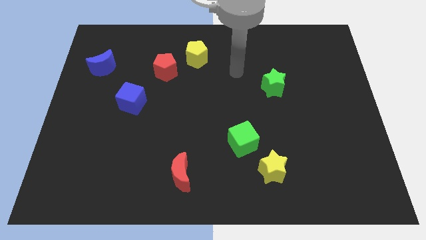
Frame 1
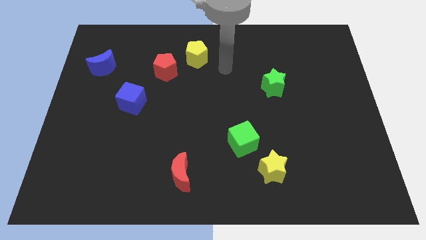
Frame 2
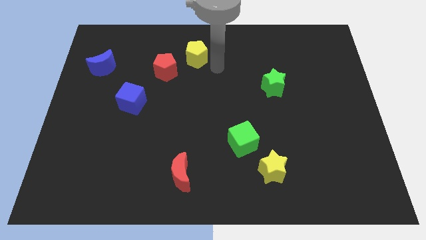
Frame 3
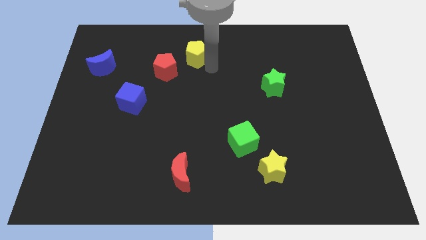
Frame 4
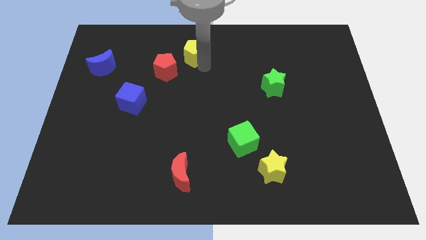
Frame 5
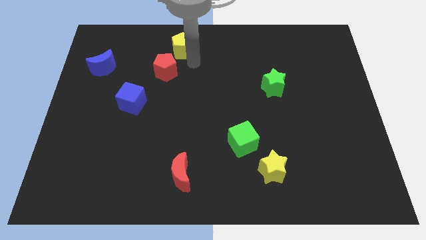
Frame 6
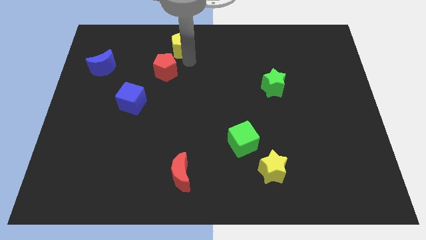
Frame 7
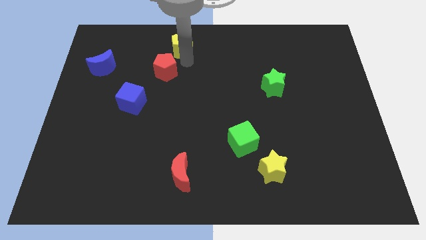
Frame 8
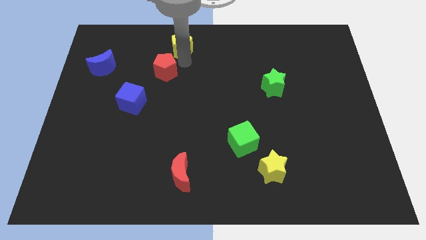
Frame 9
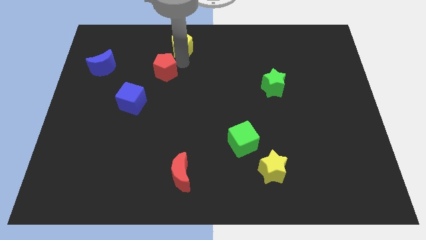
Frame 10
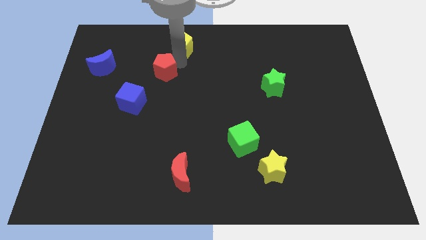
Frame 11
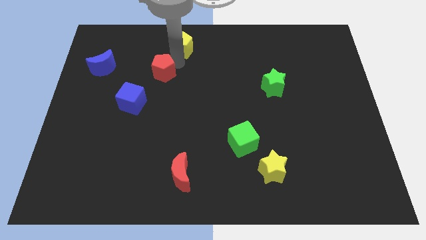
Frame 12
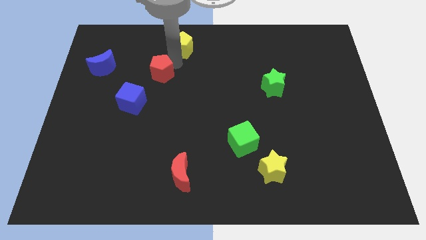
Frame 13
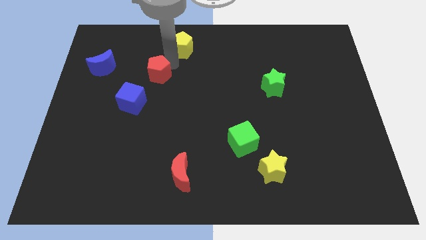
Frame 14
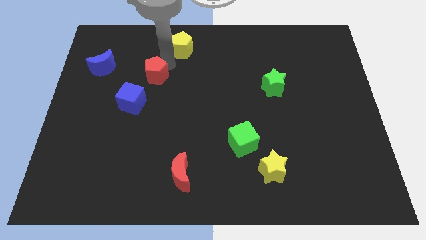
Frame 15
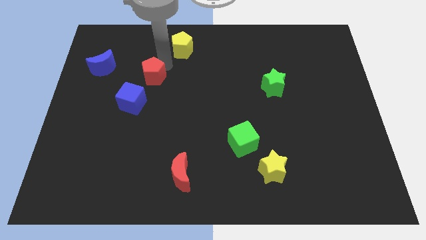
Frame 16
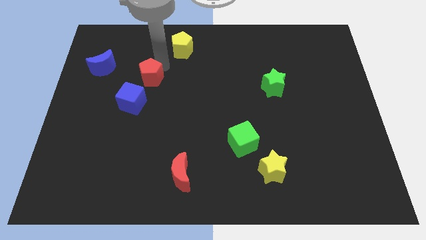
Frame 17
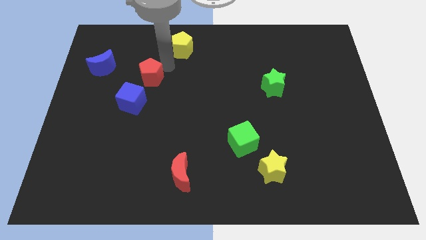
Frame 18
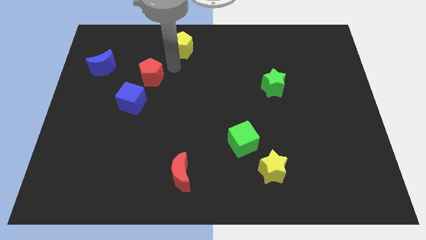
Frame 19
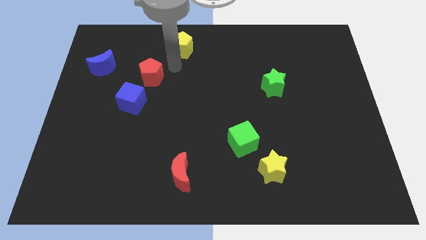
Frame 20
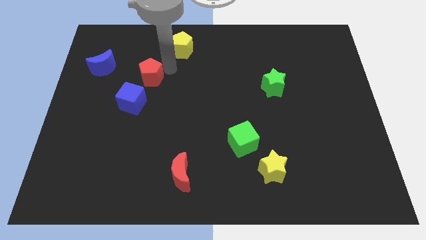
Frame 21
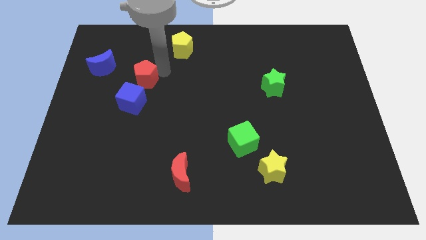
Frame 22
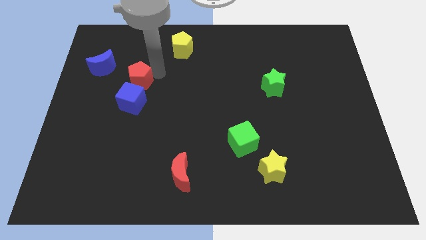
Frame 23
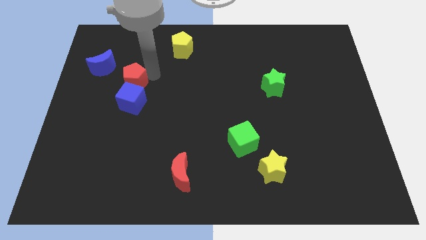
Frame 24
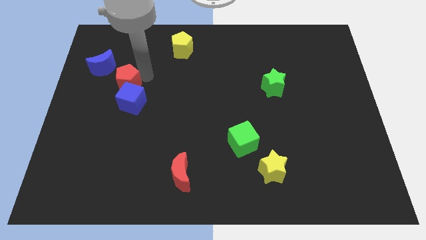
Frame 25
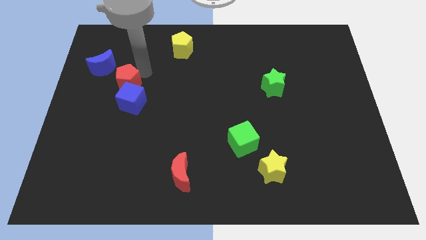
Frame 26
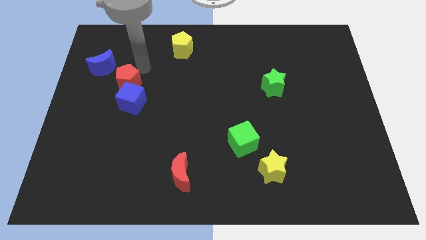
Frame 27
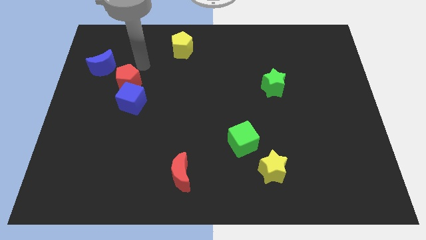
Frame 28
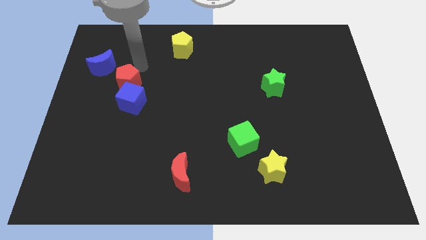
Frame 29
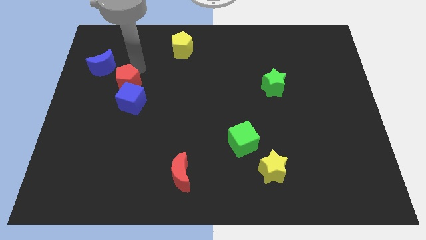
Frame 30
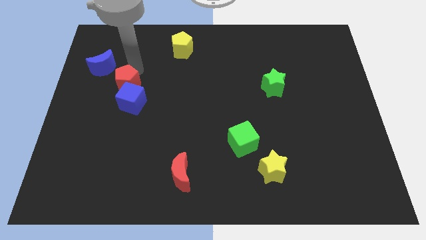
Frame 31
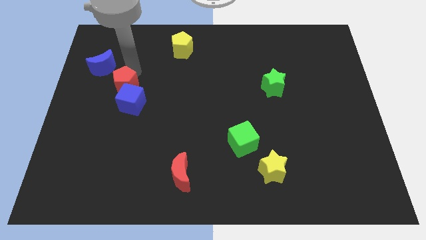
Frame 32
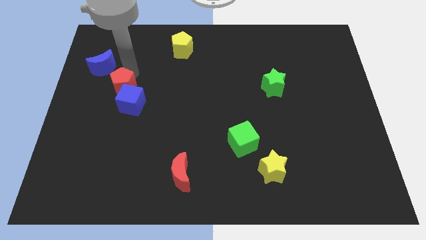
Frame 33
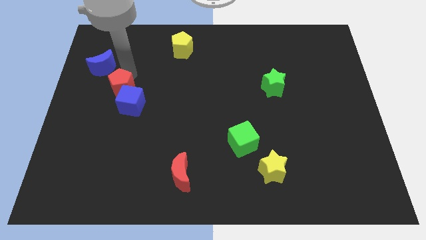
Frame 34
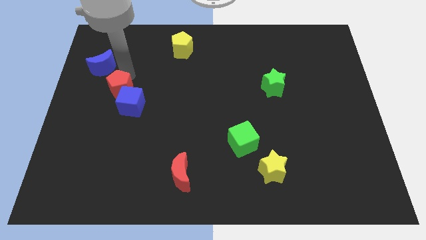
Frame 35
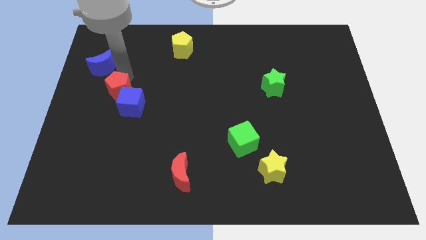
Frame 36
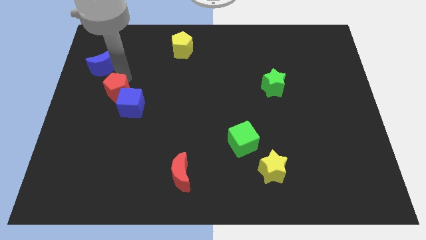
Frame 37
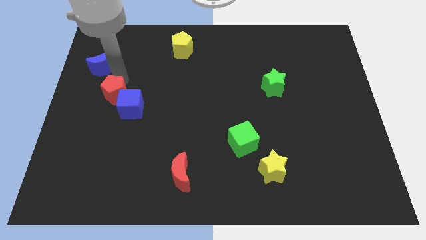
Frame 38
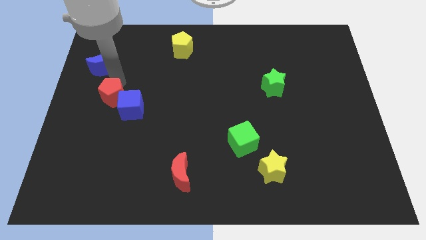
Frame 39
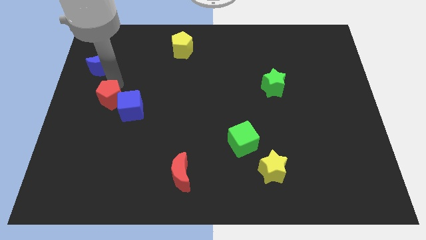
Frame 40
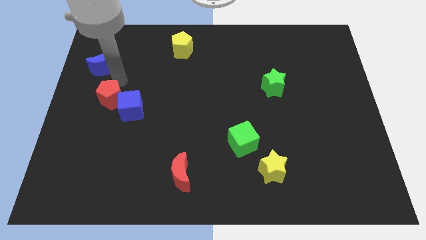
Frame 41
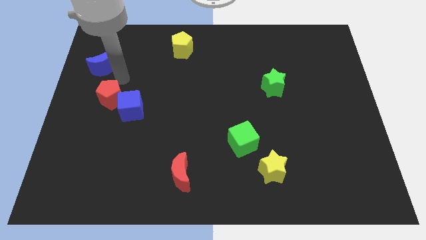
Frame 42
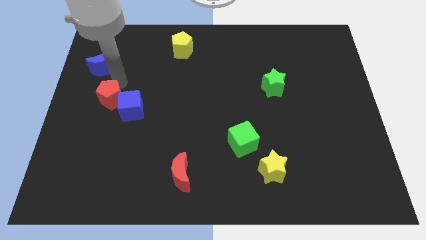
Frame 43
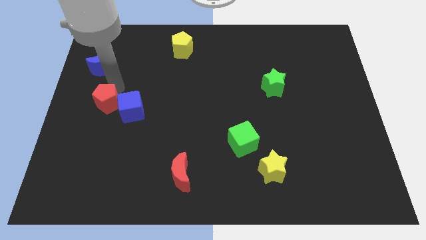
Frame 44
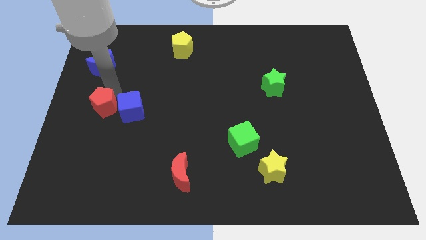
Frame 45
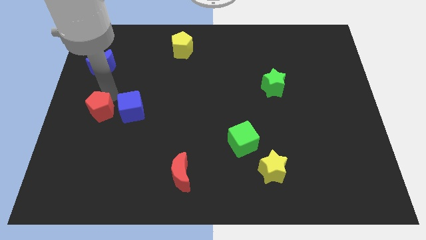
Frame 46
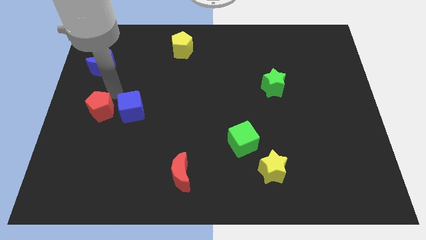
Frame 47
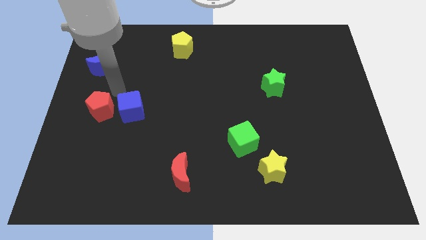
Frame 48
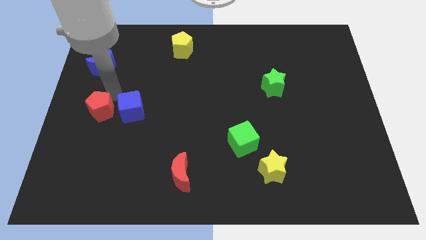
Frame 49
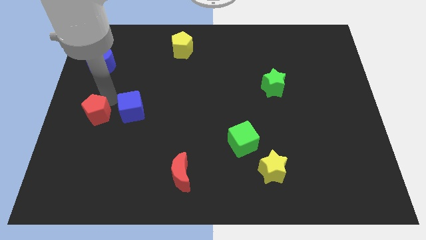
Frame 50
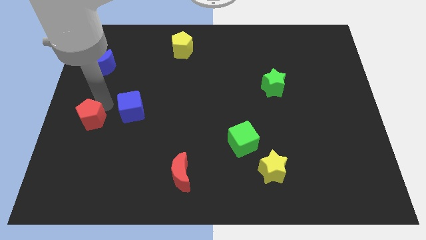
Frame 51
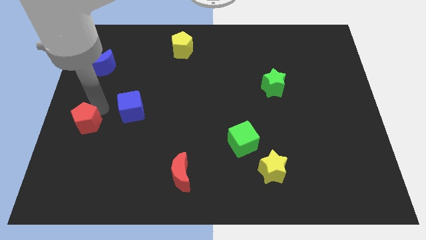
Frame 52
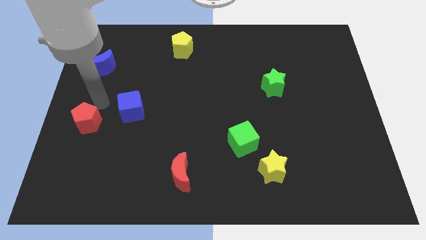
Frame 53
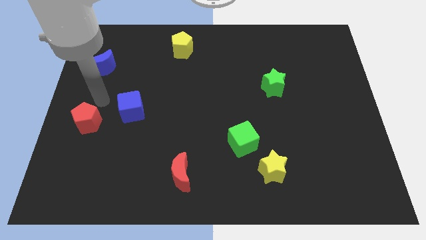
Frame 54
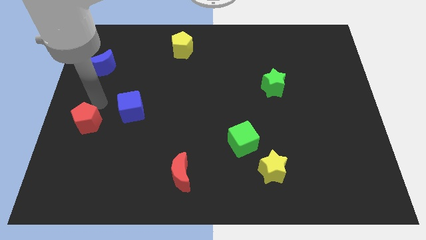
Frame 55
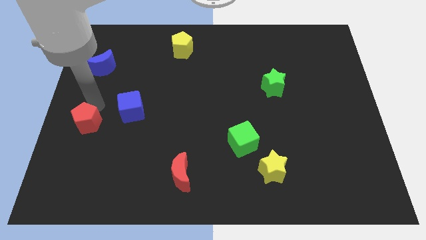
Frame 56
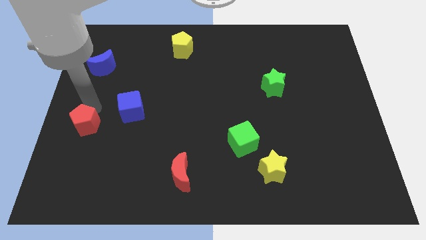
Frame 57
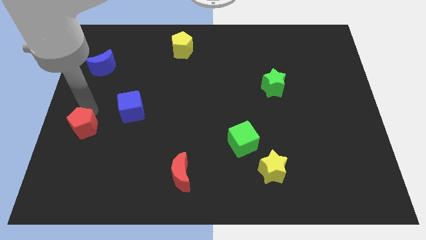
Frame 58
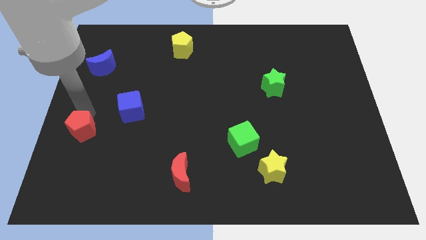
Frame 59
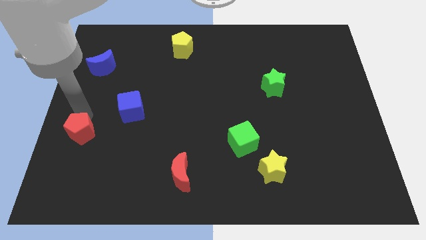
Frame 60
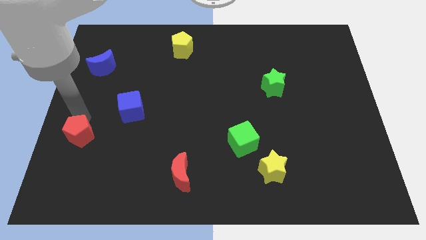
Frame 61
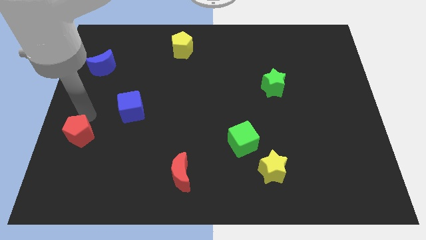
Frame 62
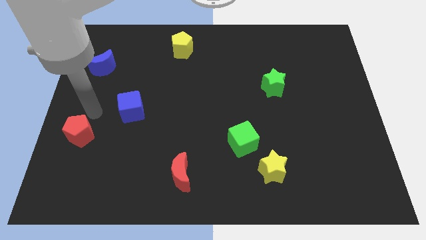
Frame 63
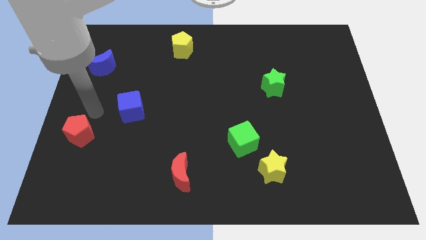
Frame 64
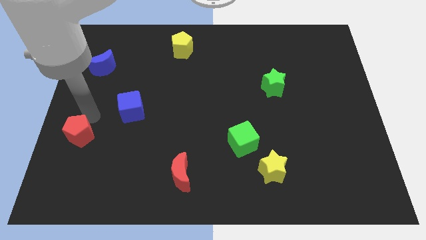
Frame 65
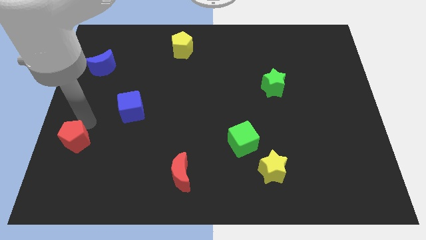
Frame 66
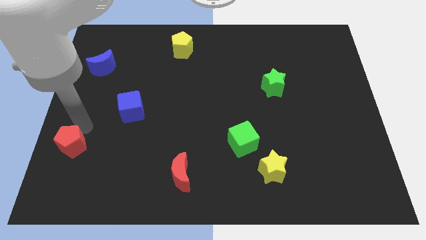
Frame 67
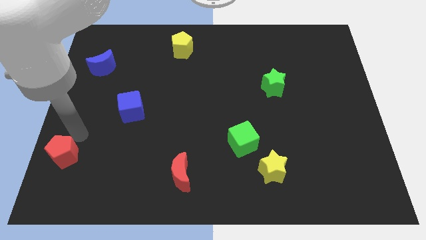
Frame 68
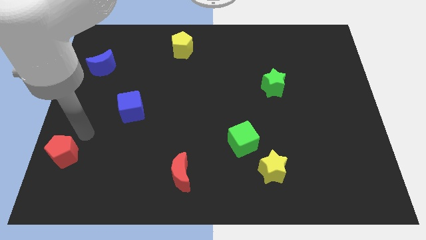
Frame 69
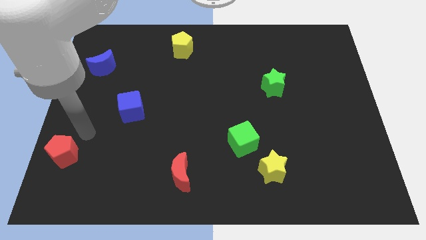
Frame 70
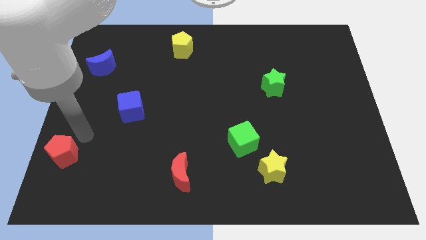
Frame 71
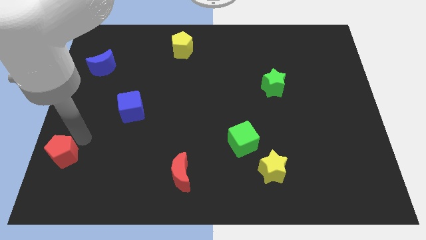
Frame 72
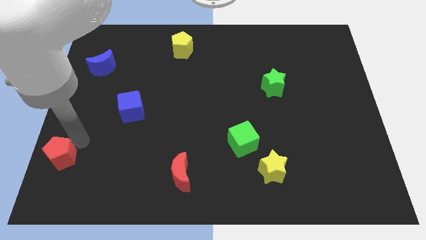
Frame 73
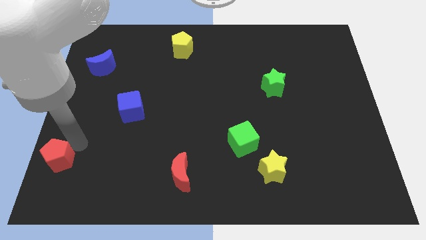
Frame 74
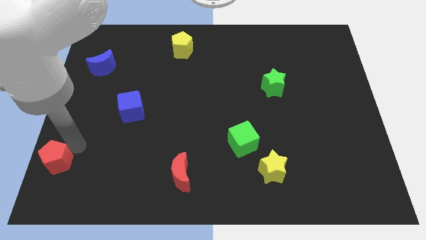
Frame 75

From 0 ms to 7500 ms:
push the red pentagon to the bottom left
